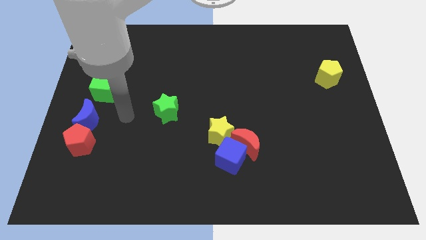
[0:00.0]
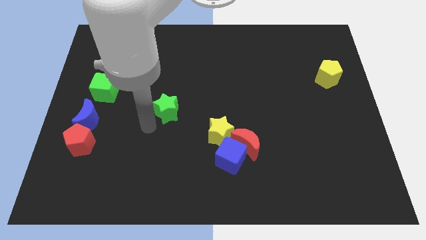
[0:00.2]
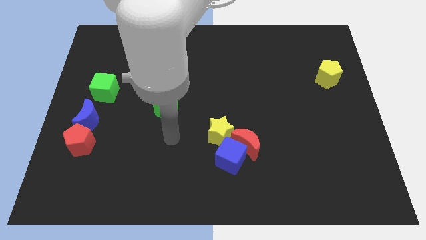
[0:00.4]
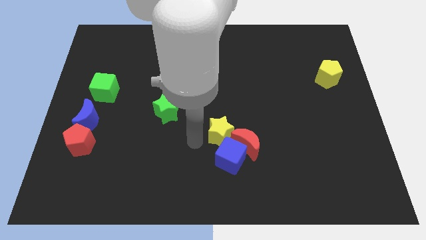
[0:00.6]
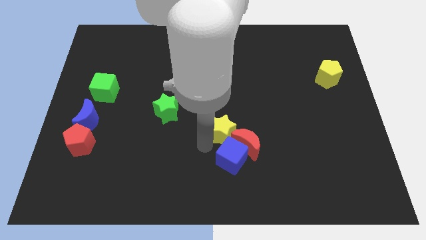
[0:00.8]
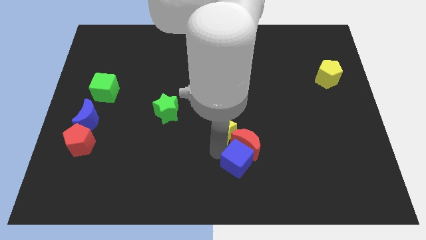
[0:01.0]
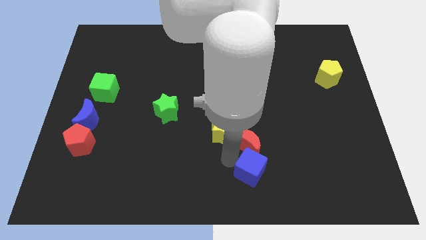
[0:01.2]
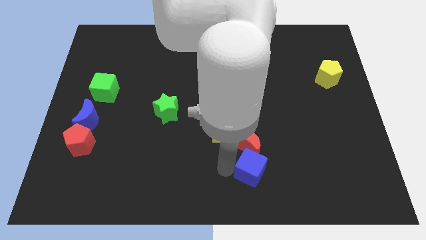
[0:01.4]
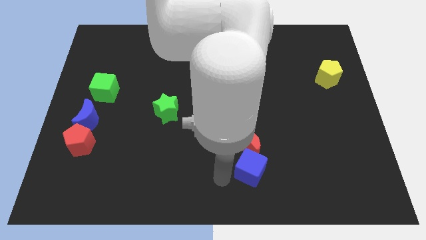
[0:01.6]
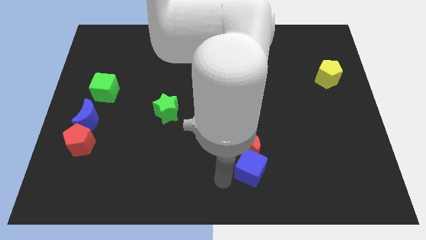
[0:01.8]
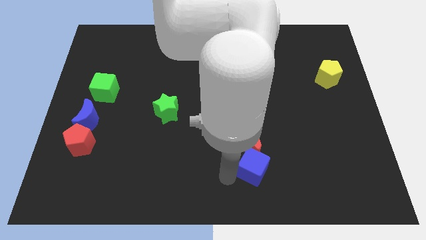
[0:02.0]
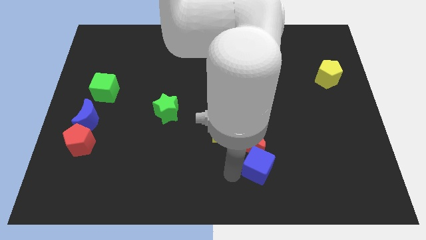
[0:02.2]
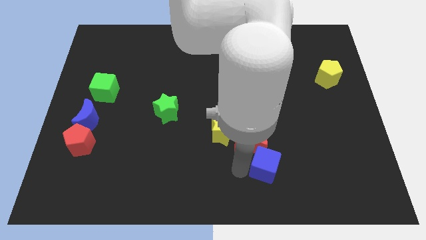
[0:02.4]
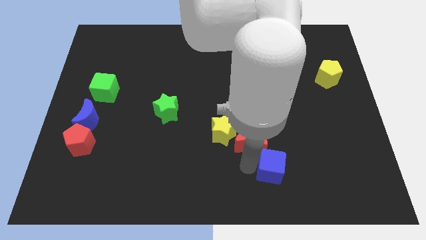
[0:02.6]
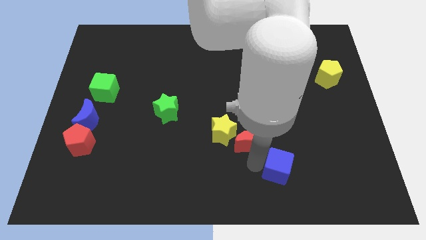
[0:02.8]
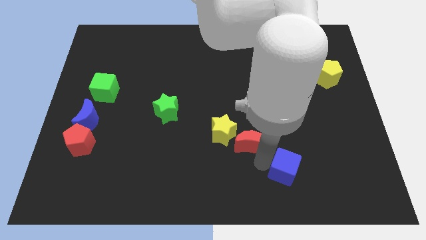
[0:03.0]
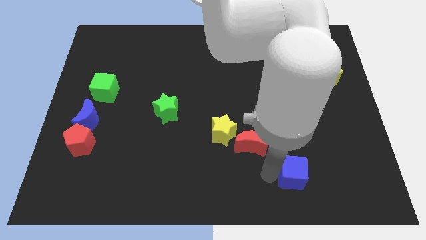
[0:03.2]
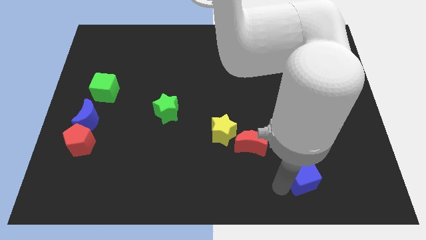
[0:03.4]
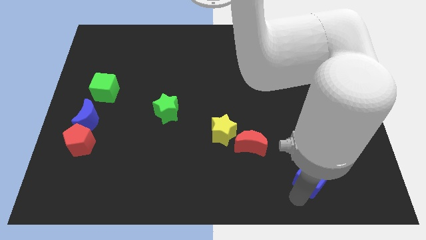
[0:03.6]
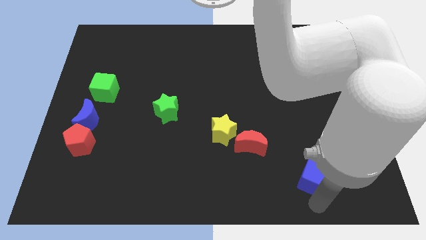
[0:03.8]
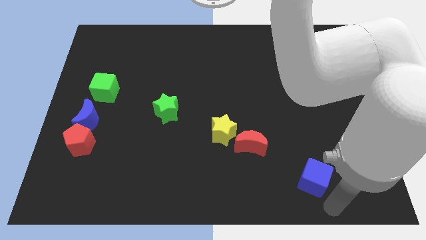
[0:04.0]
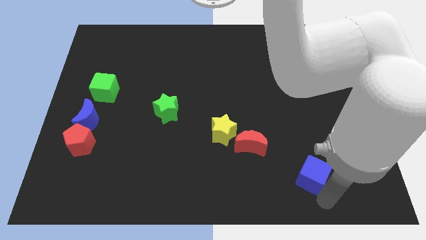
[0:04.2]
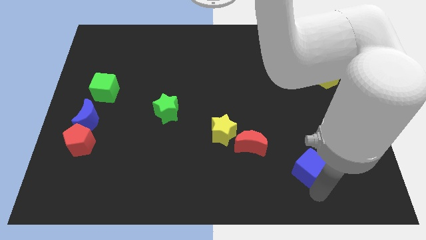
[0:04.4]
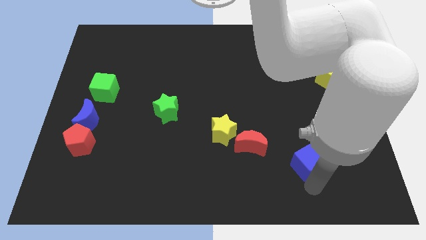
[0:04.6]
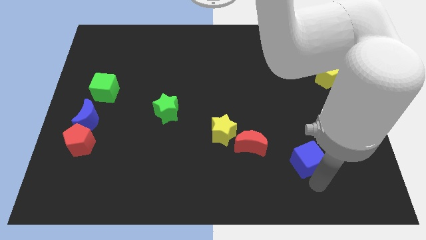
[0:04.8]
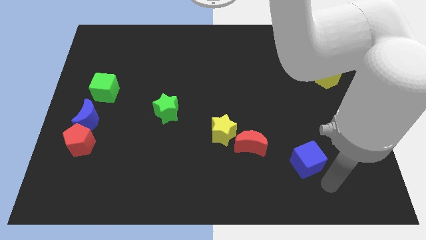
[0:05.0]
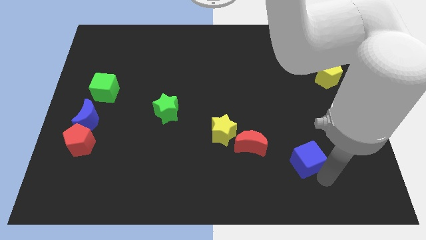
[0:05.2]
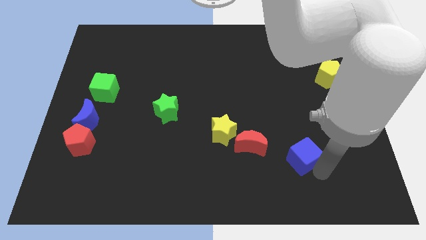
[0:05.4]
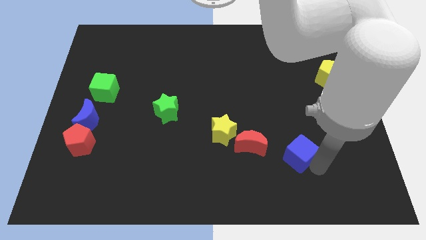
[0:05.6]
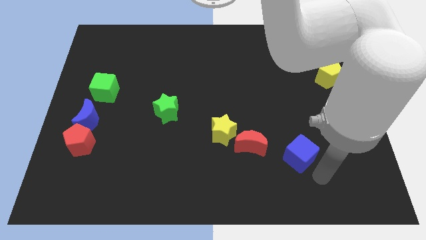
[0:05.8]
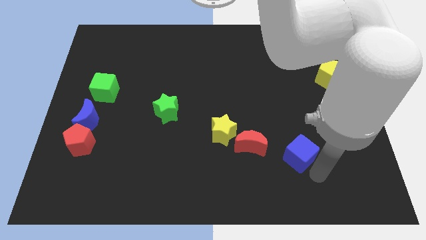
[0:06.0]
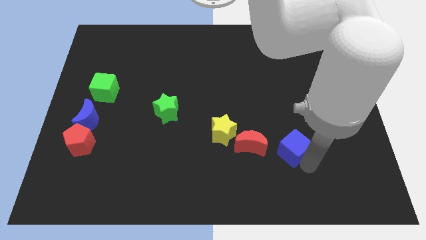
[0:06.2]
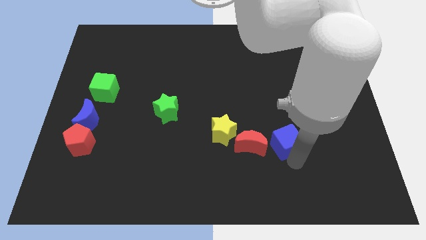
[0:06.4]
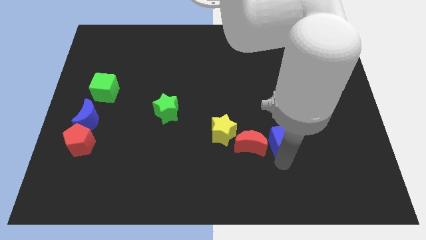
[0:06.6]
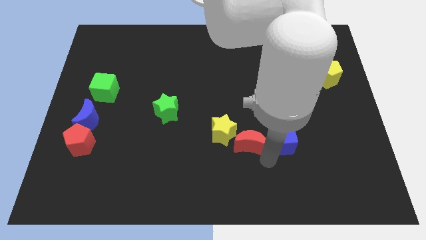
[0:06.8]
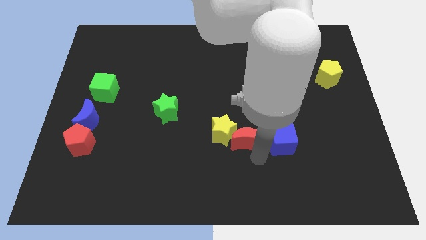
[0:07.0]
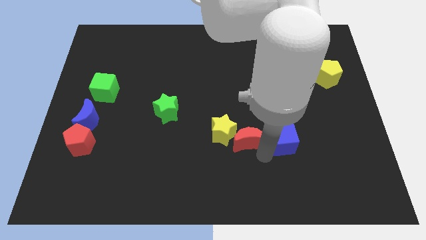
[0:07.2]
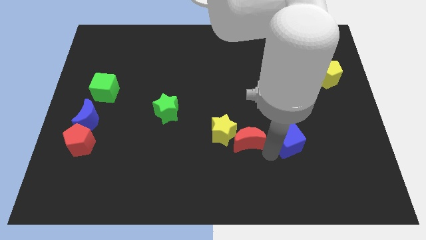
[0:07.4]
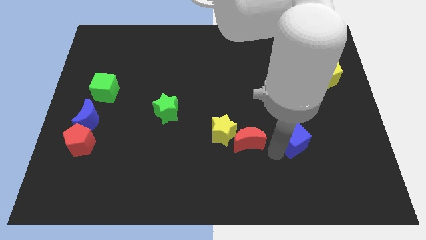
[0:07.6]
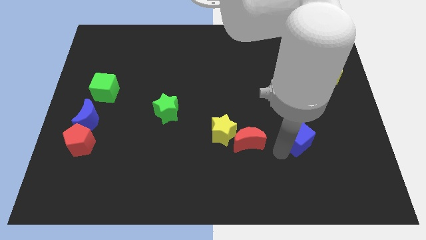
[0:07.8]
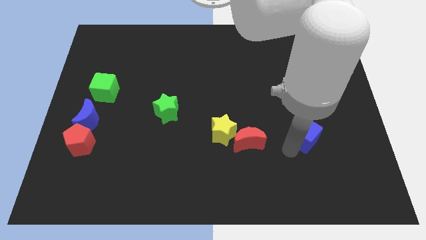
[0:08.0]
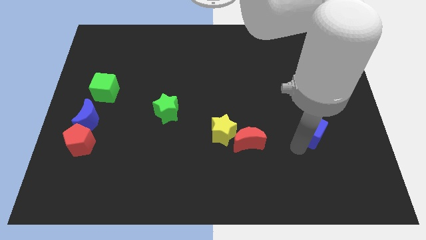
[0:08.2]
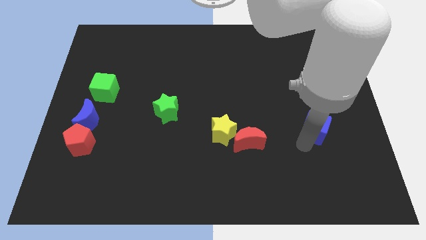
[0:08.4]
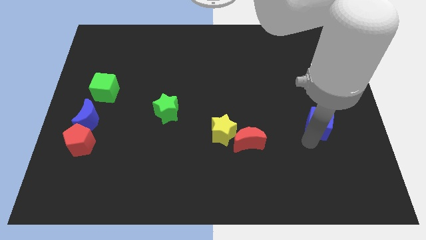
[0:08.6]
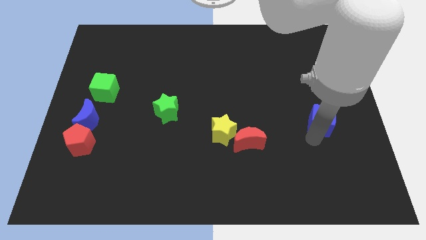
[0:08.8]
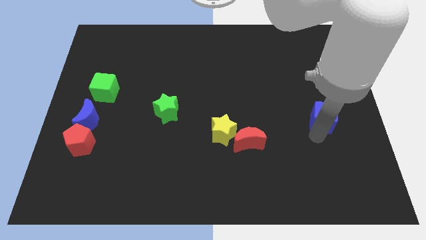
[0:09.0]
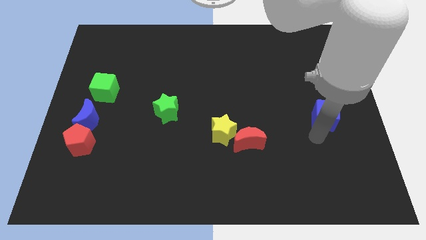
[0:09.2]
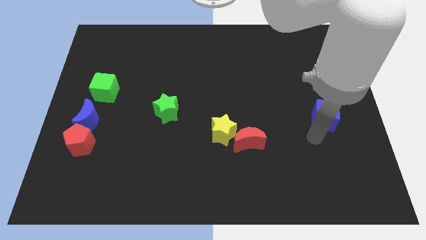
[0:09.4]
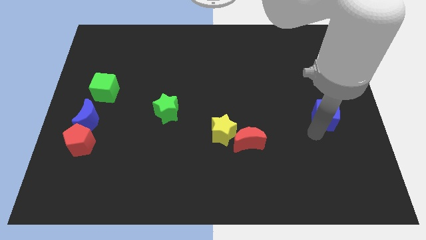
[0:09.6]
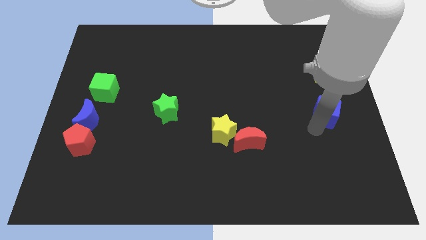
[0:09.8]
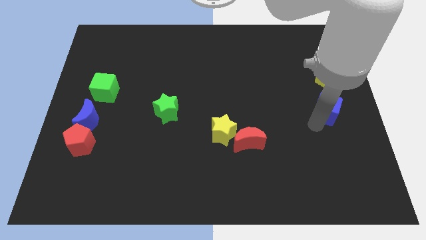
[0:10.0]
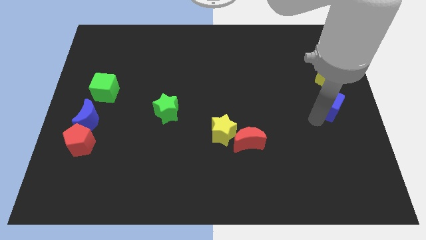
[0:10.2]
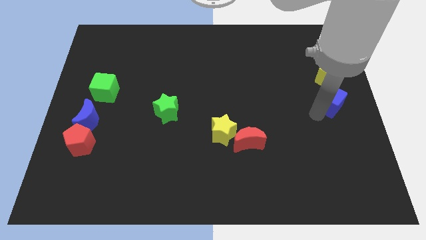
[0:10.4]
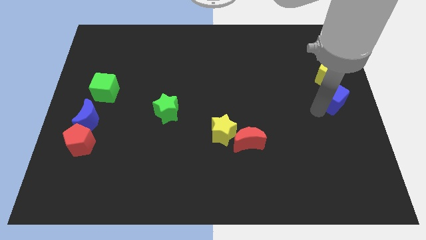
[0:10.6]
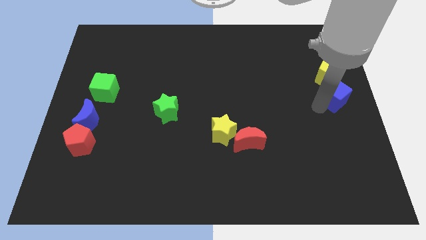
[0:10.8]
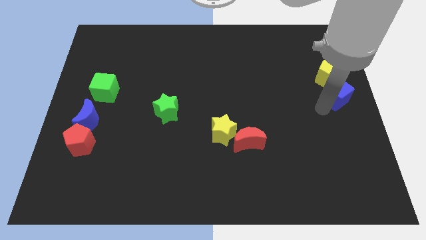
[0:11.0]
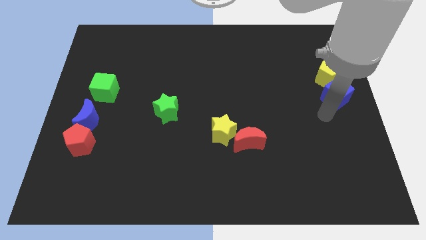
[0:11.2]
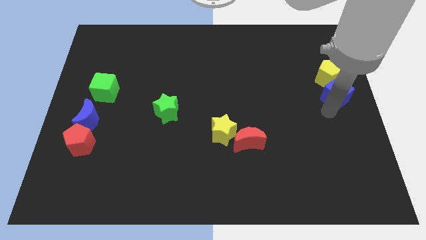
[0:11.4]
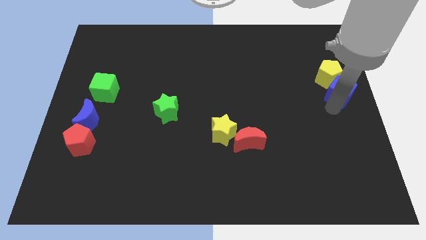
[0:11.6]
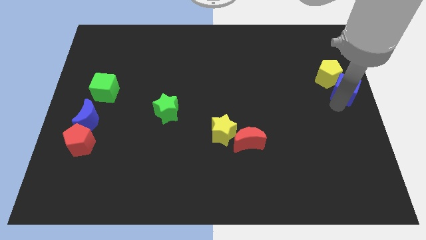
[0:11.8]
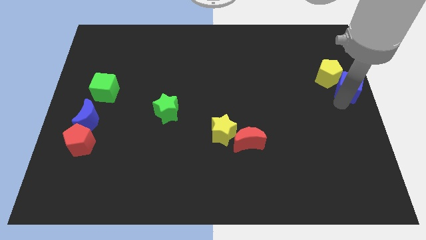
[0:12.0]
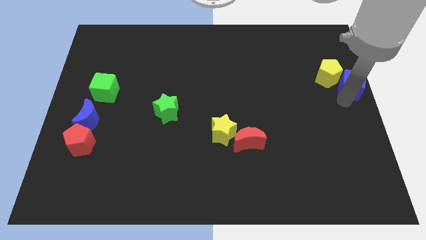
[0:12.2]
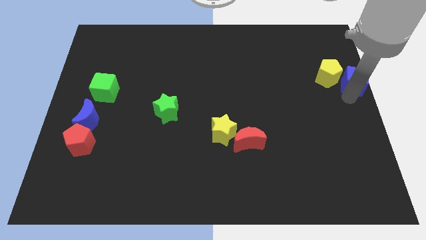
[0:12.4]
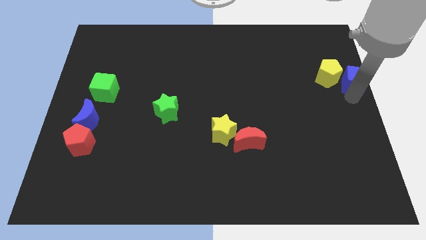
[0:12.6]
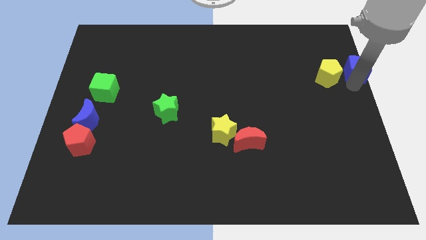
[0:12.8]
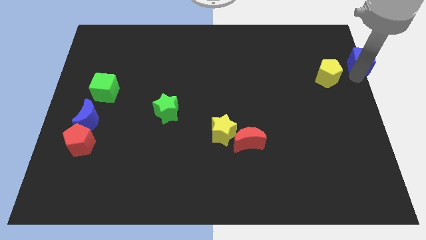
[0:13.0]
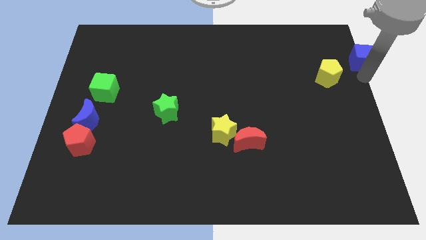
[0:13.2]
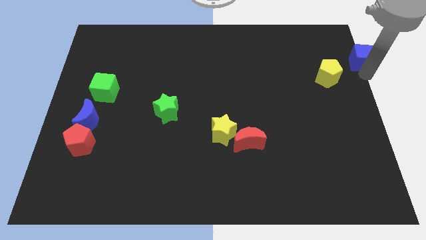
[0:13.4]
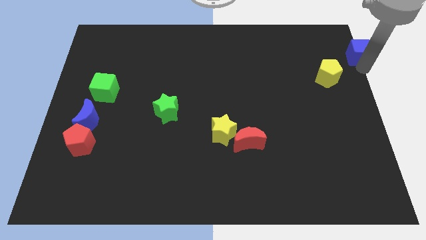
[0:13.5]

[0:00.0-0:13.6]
put the blue cube to the top right corner
